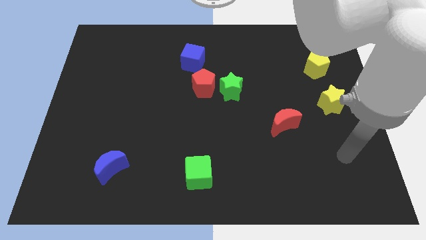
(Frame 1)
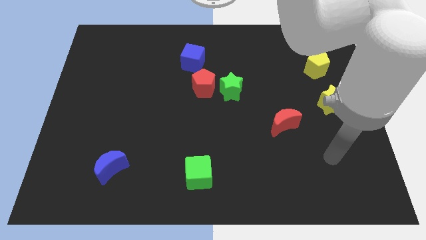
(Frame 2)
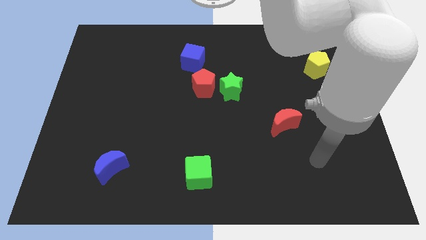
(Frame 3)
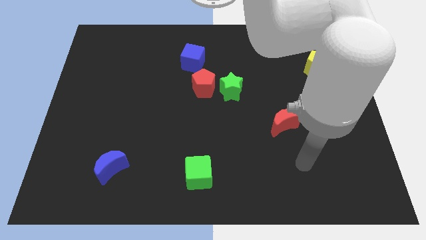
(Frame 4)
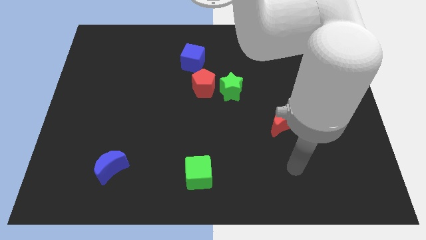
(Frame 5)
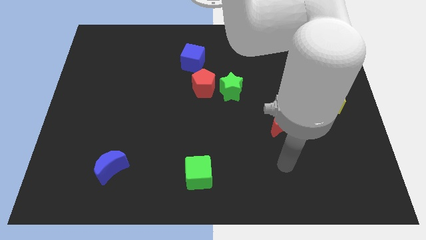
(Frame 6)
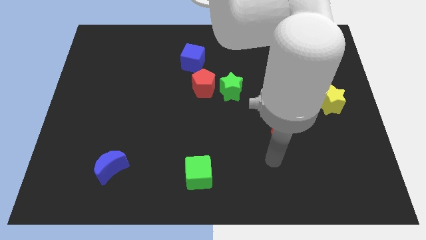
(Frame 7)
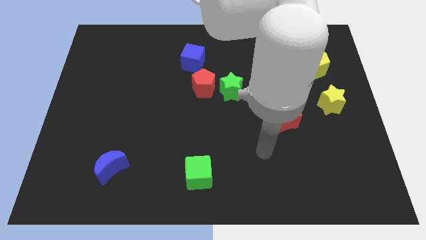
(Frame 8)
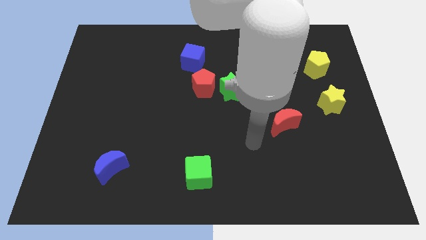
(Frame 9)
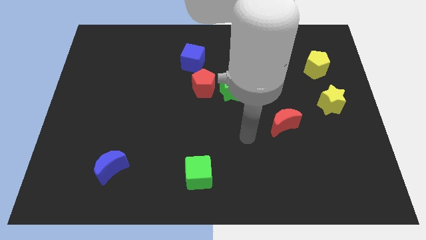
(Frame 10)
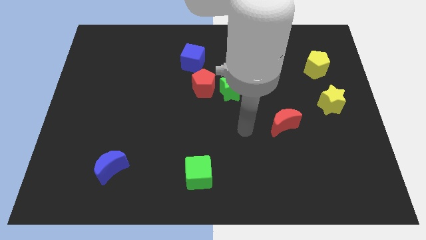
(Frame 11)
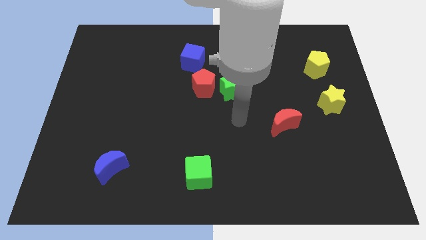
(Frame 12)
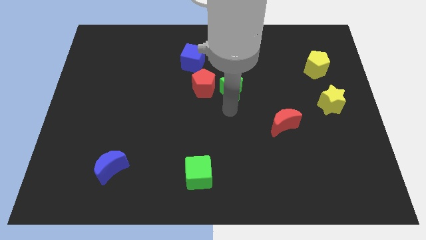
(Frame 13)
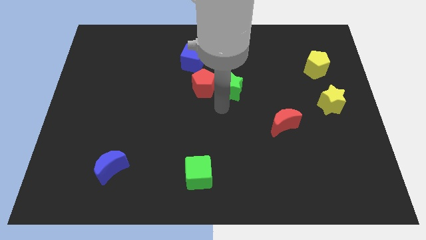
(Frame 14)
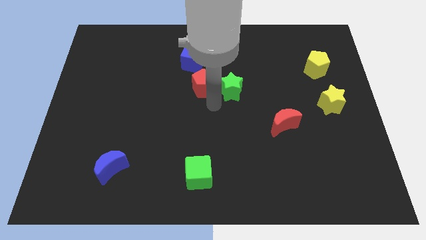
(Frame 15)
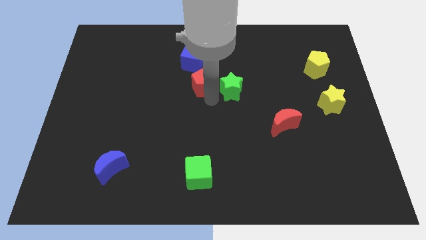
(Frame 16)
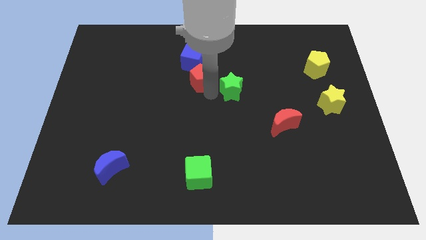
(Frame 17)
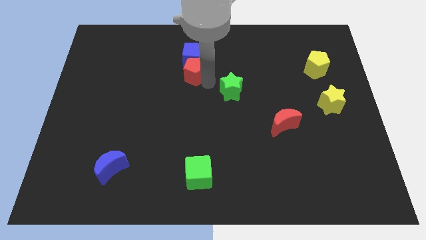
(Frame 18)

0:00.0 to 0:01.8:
separate the green star from the red pentagon

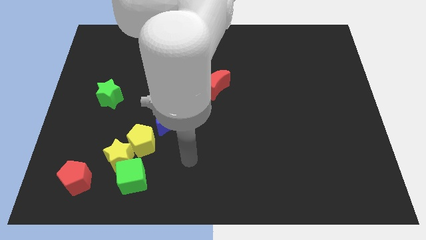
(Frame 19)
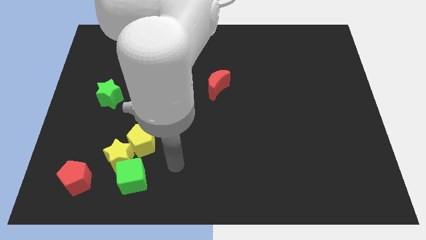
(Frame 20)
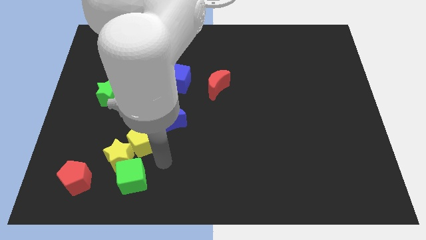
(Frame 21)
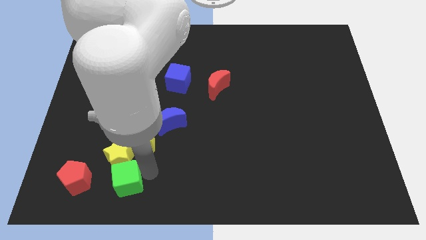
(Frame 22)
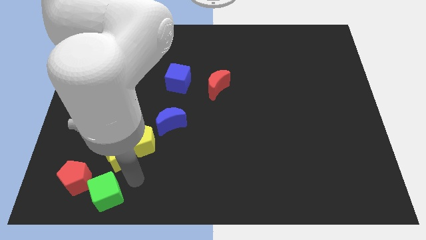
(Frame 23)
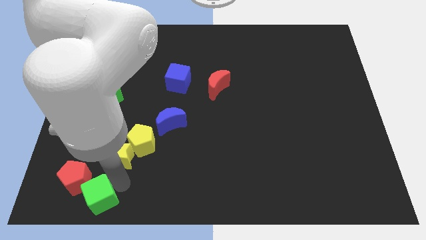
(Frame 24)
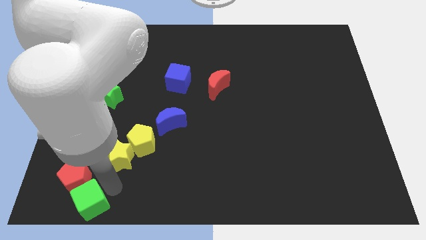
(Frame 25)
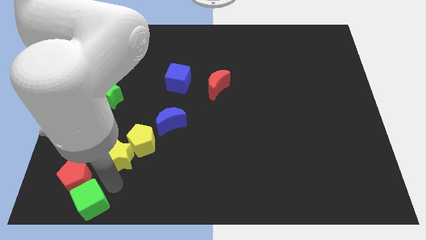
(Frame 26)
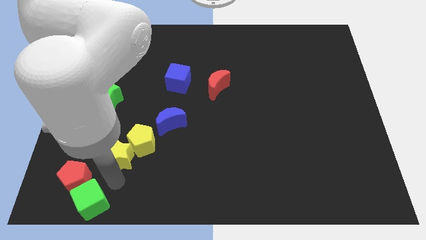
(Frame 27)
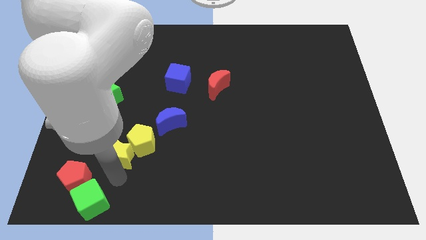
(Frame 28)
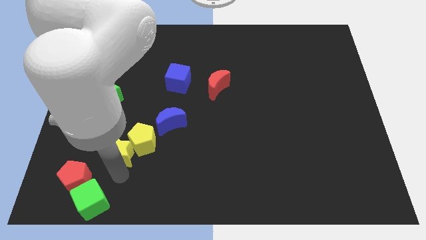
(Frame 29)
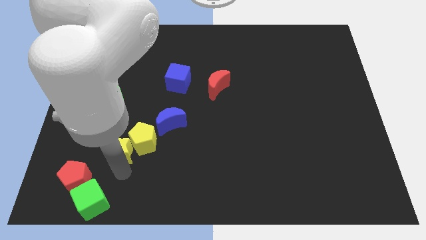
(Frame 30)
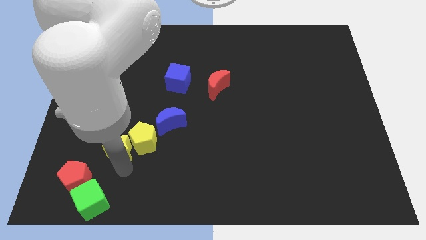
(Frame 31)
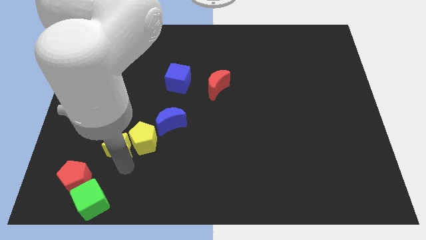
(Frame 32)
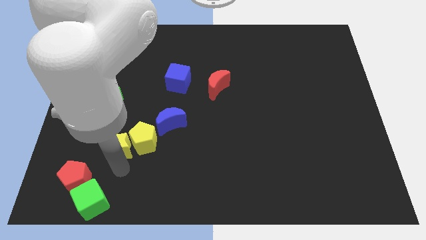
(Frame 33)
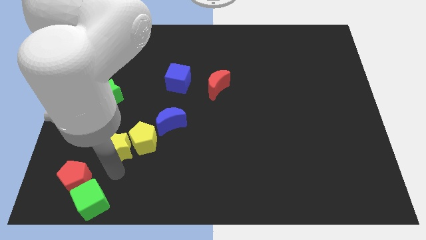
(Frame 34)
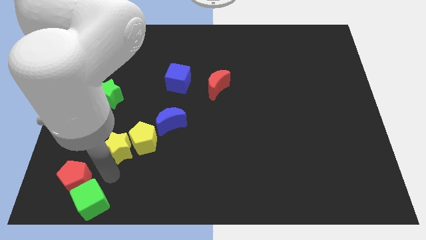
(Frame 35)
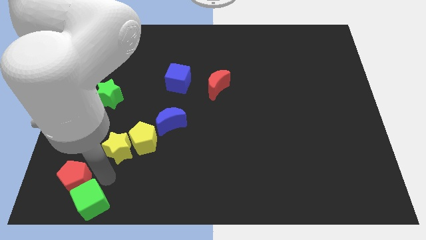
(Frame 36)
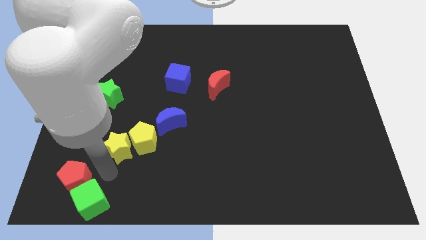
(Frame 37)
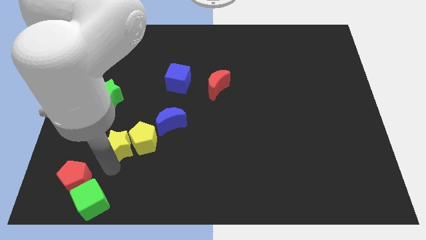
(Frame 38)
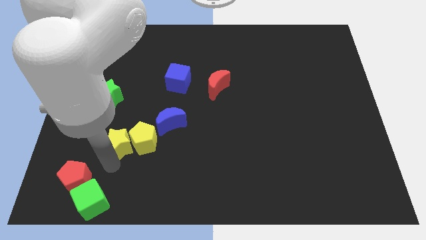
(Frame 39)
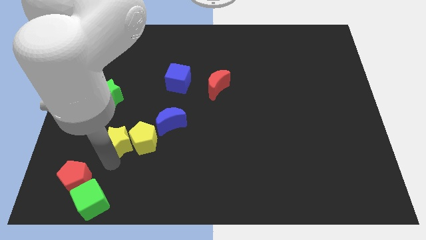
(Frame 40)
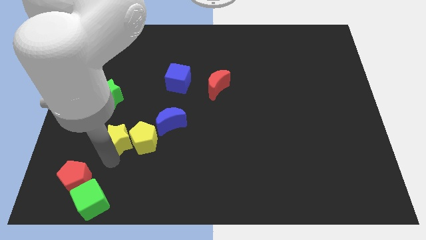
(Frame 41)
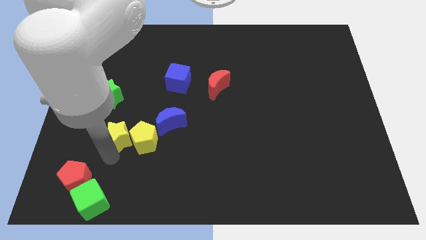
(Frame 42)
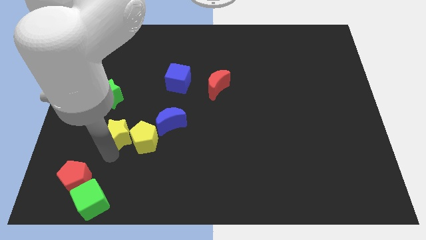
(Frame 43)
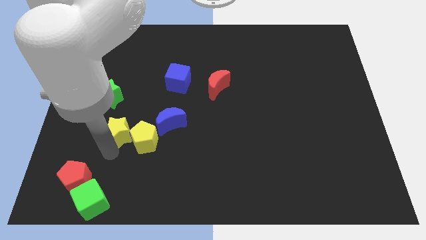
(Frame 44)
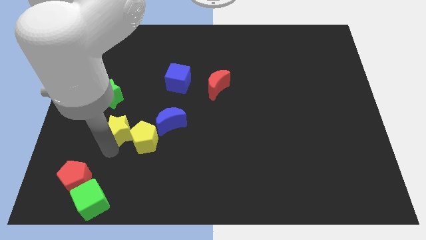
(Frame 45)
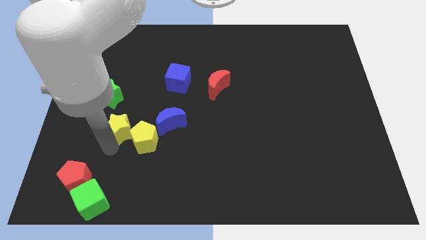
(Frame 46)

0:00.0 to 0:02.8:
separate the yellow star from the green cube, yellow pentagon, and red pentagon

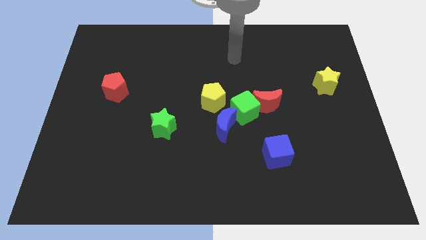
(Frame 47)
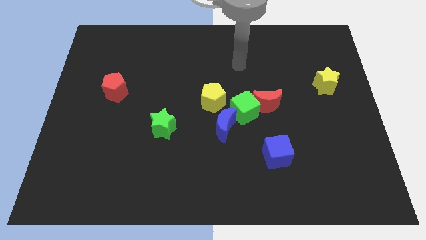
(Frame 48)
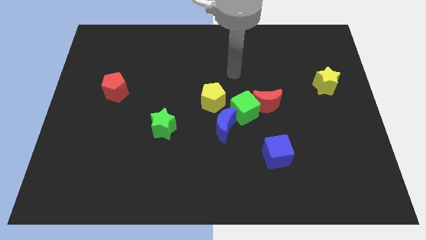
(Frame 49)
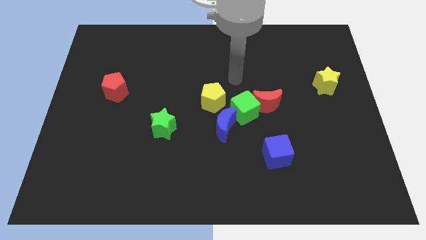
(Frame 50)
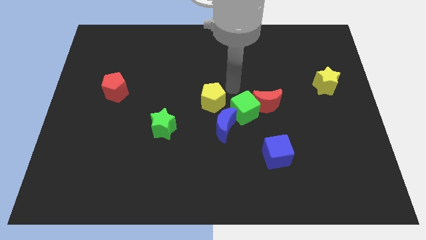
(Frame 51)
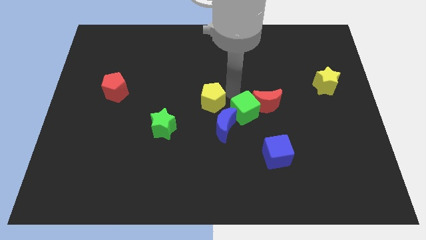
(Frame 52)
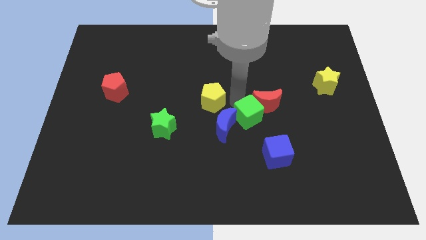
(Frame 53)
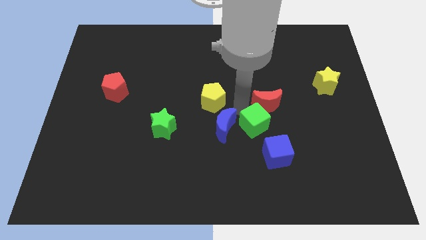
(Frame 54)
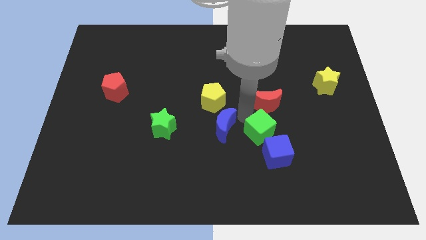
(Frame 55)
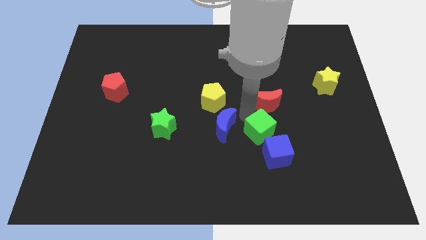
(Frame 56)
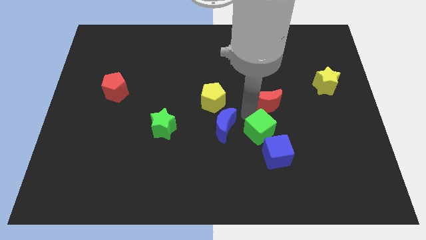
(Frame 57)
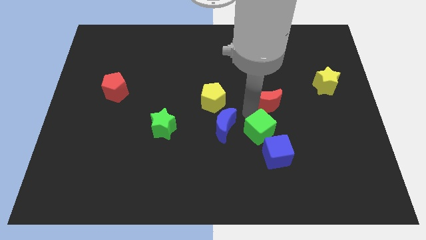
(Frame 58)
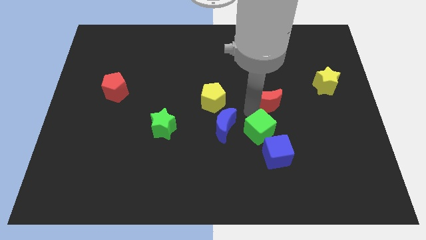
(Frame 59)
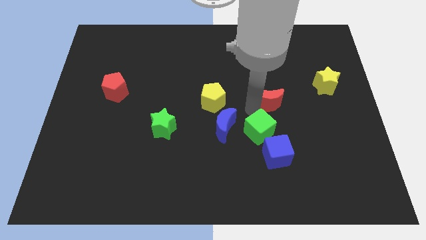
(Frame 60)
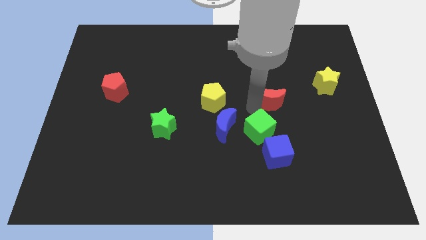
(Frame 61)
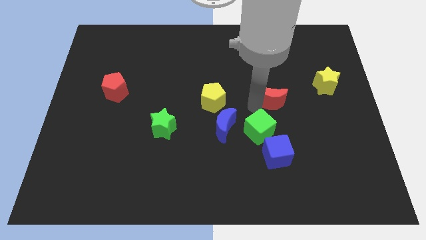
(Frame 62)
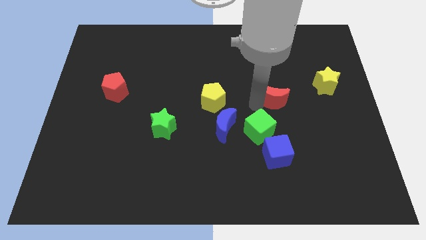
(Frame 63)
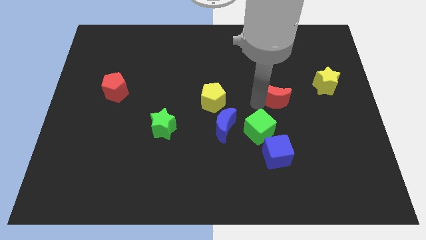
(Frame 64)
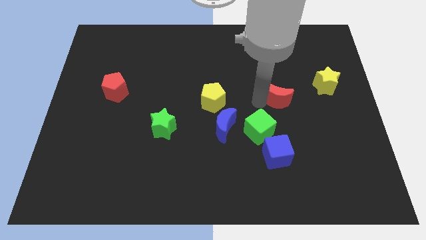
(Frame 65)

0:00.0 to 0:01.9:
separate the red moon from the green cube

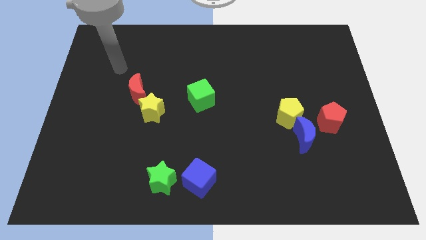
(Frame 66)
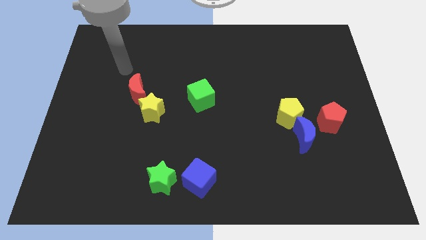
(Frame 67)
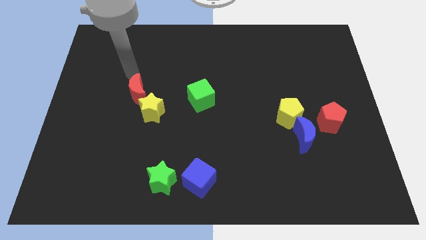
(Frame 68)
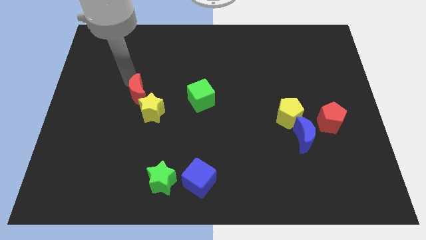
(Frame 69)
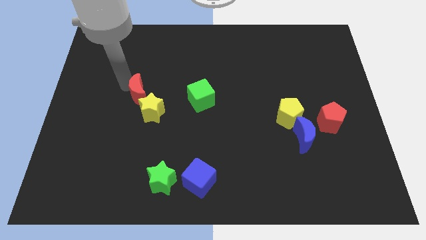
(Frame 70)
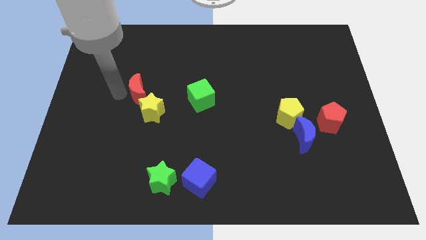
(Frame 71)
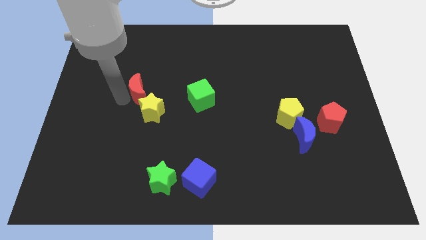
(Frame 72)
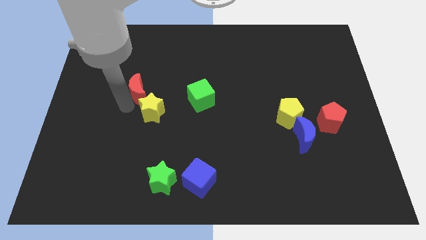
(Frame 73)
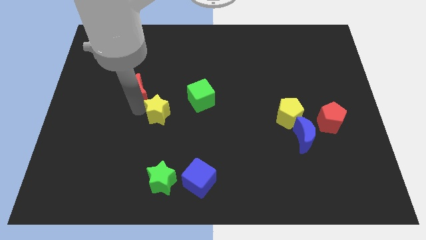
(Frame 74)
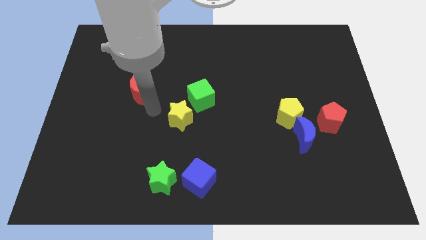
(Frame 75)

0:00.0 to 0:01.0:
separate the red moon from the yellow star

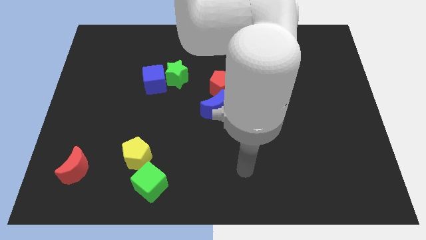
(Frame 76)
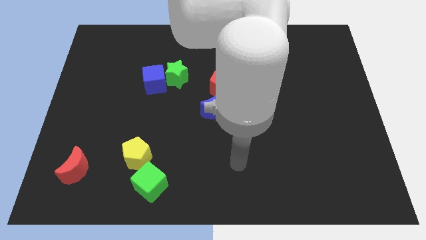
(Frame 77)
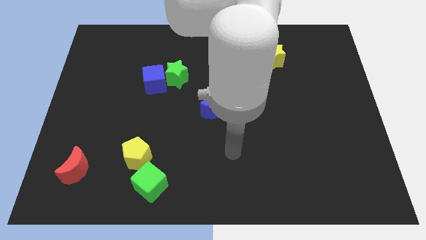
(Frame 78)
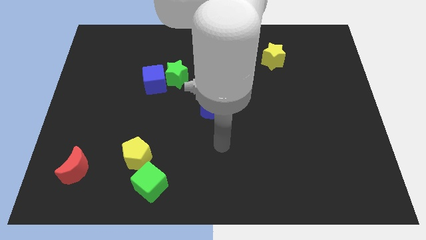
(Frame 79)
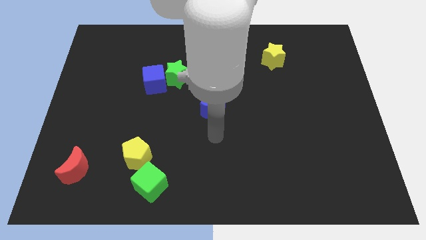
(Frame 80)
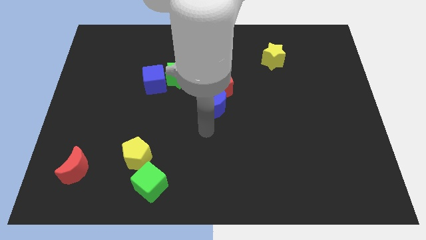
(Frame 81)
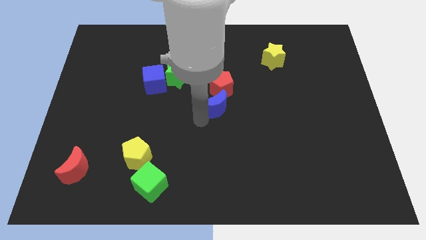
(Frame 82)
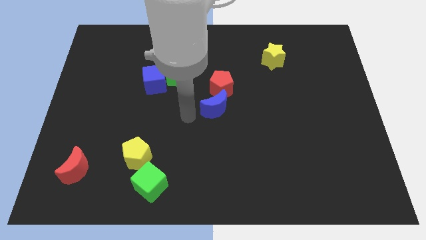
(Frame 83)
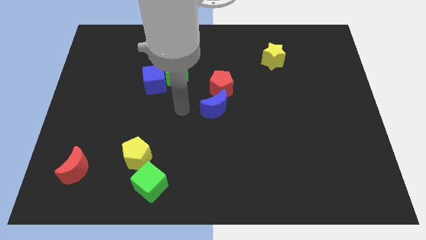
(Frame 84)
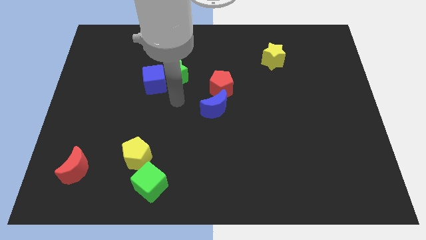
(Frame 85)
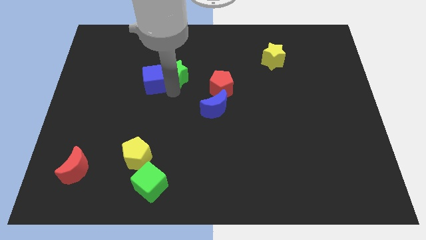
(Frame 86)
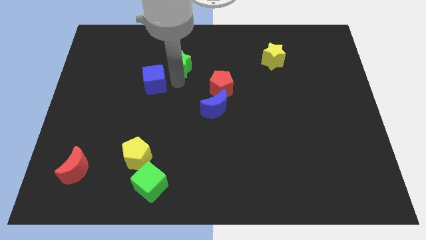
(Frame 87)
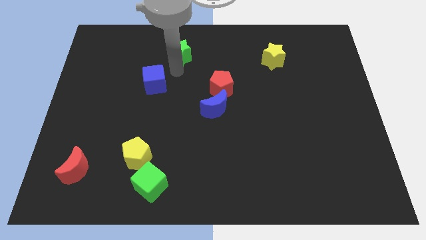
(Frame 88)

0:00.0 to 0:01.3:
separate the blue cube from the green star

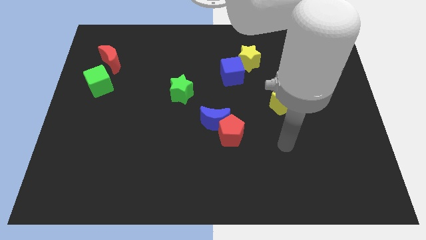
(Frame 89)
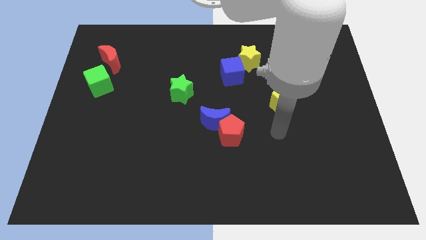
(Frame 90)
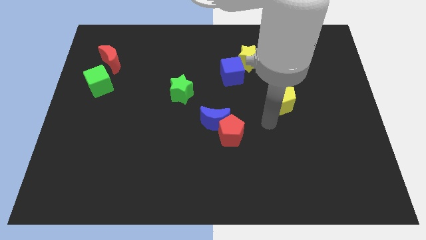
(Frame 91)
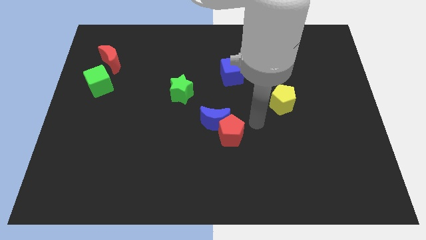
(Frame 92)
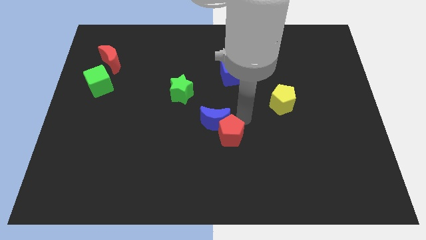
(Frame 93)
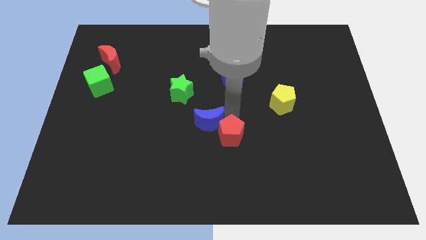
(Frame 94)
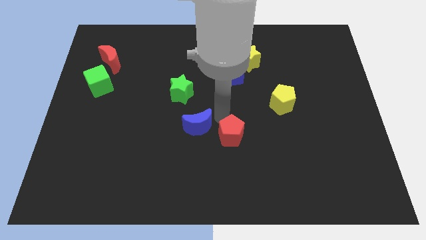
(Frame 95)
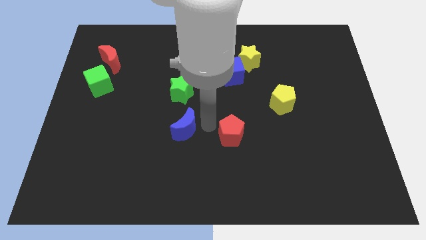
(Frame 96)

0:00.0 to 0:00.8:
pull the red pentagon apart from the blue moon
